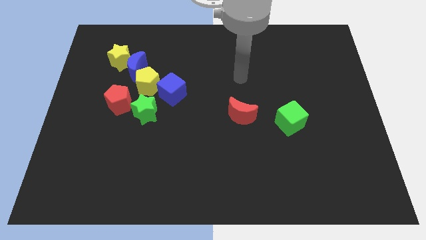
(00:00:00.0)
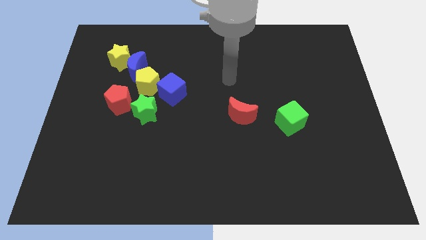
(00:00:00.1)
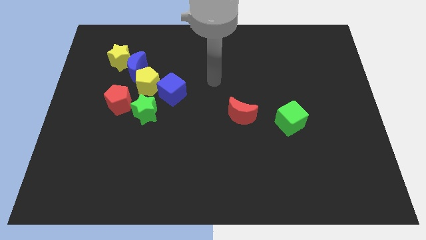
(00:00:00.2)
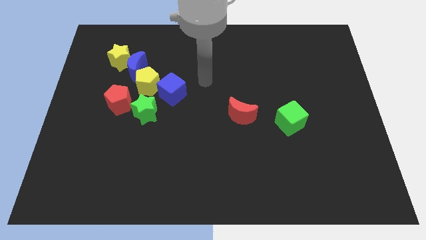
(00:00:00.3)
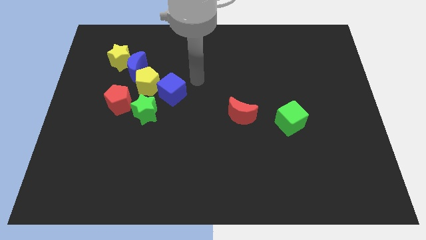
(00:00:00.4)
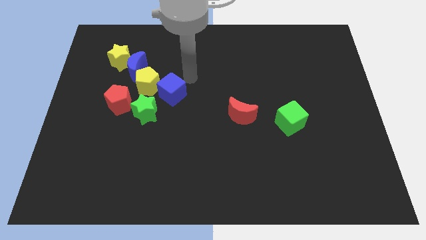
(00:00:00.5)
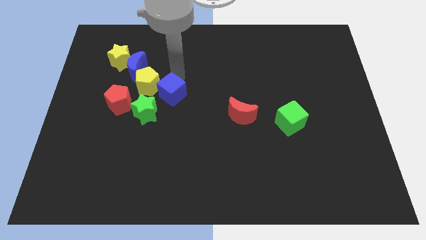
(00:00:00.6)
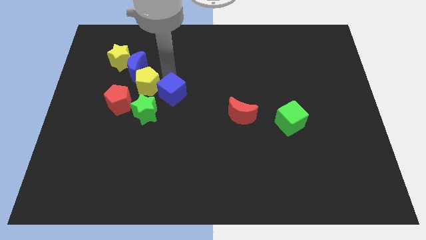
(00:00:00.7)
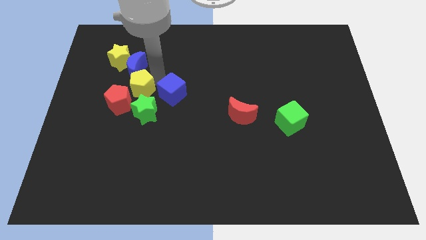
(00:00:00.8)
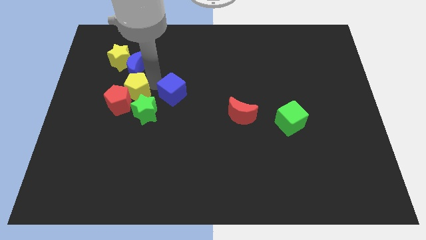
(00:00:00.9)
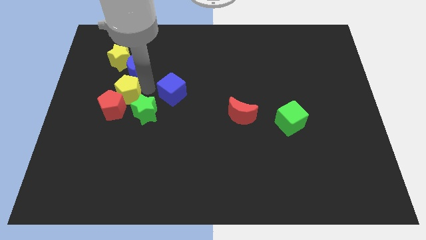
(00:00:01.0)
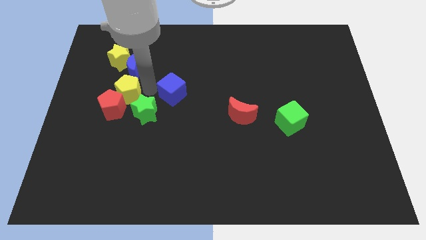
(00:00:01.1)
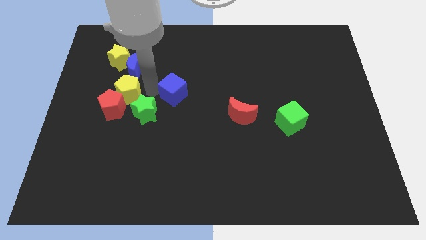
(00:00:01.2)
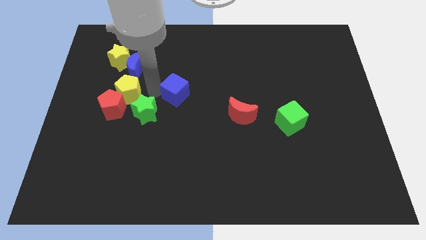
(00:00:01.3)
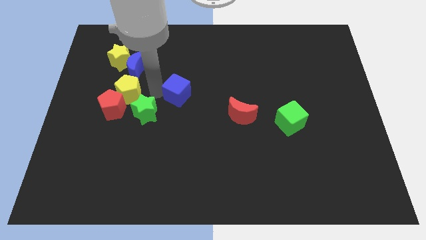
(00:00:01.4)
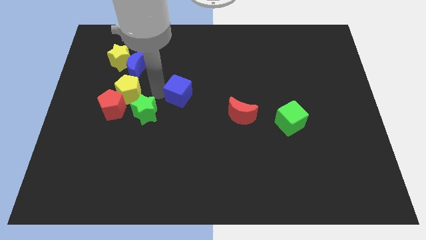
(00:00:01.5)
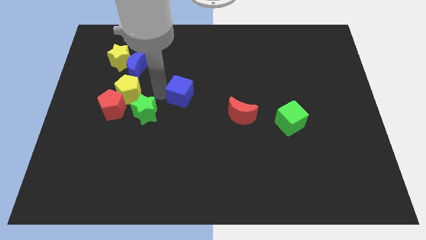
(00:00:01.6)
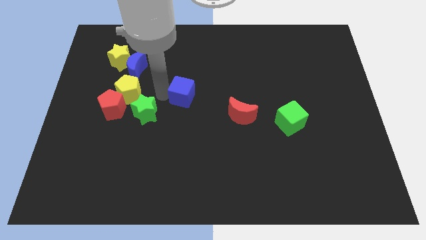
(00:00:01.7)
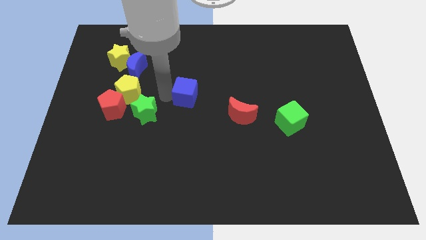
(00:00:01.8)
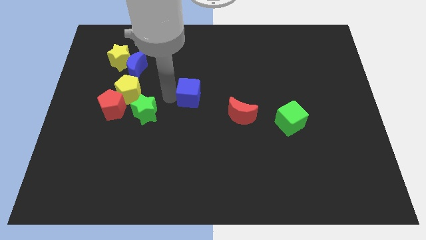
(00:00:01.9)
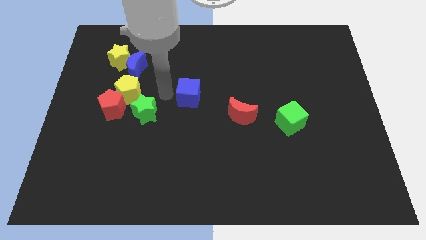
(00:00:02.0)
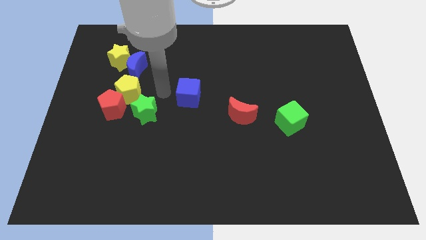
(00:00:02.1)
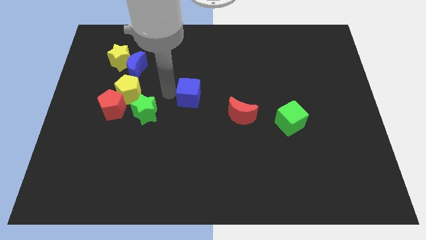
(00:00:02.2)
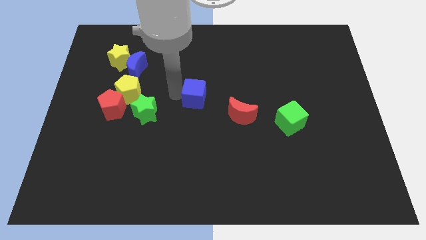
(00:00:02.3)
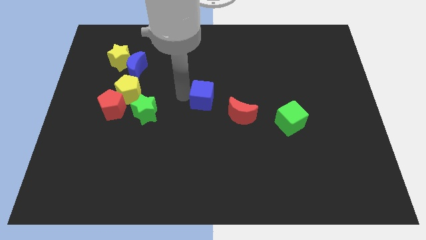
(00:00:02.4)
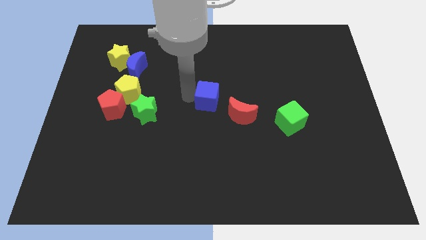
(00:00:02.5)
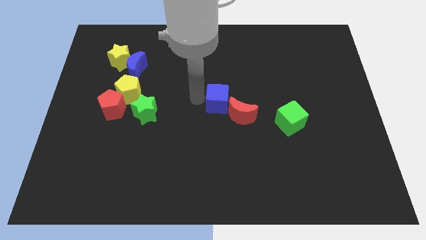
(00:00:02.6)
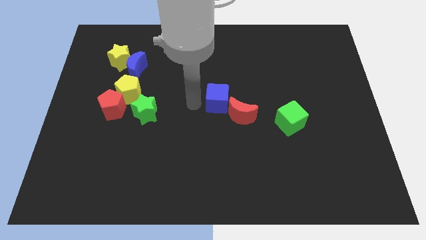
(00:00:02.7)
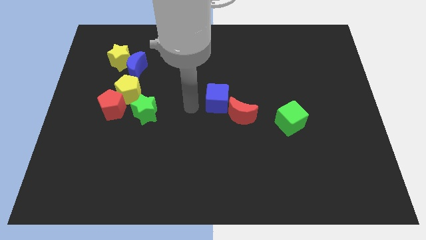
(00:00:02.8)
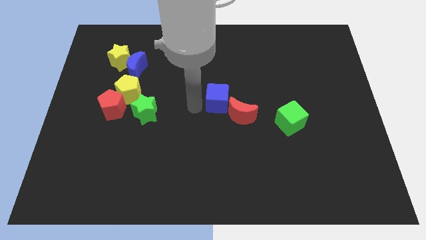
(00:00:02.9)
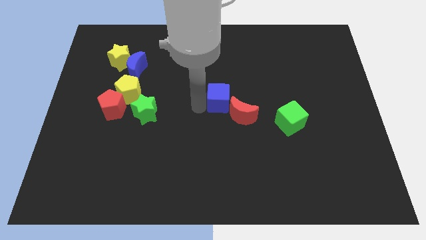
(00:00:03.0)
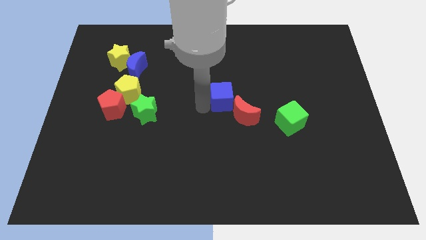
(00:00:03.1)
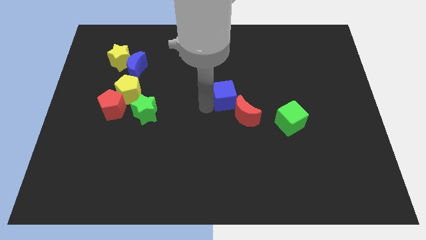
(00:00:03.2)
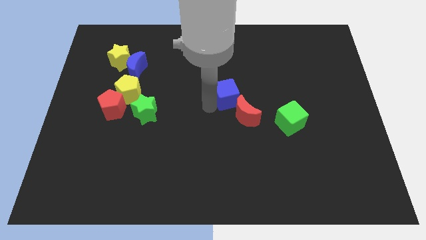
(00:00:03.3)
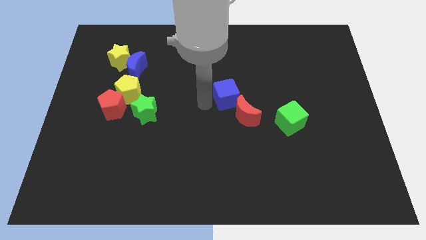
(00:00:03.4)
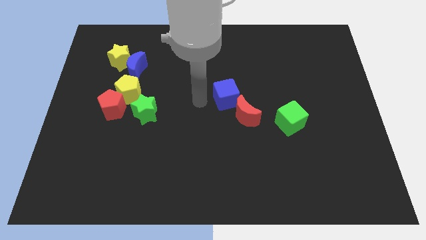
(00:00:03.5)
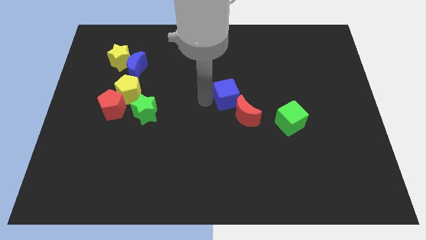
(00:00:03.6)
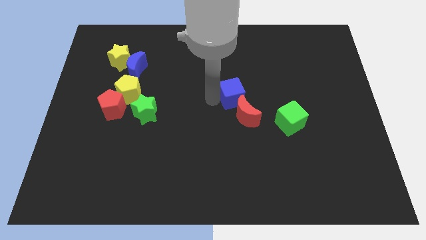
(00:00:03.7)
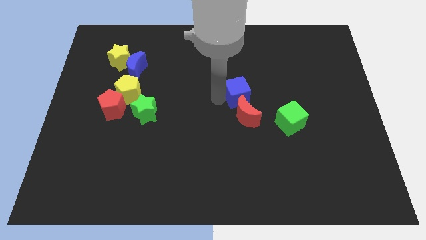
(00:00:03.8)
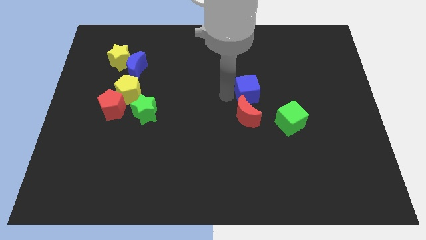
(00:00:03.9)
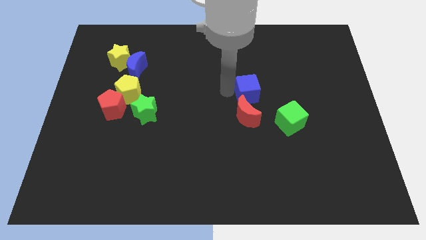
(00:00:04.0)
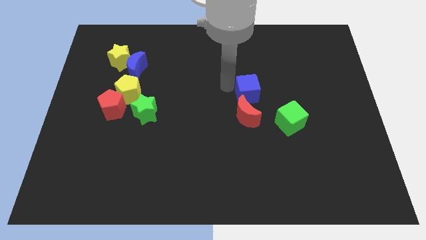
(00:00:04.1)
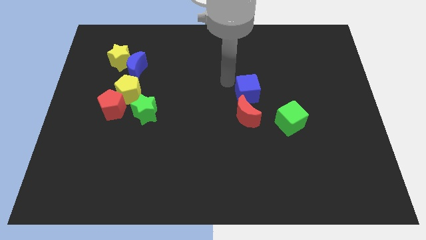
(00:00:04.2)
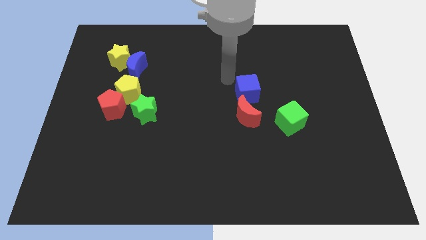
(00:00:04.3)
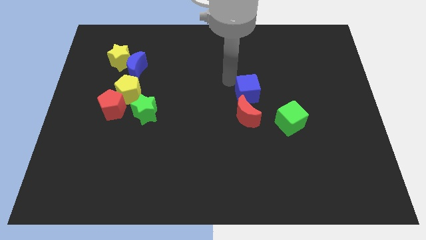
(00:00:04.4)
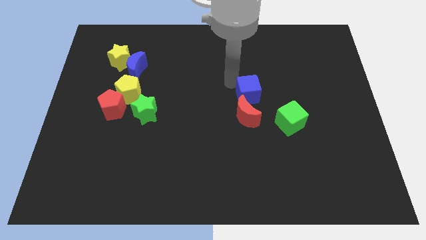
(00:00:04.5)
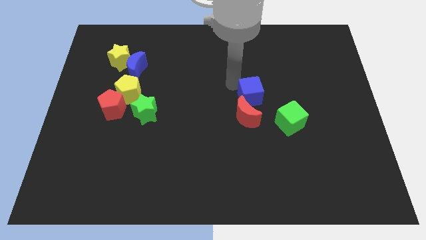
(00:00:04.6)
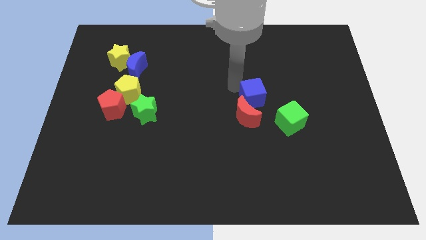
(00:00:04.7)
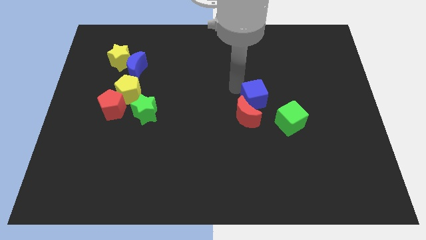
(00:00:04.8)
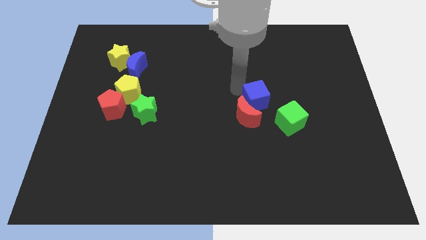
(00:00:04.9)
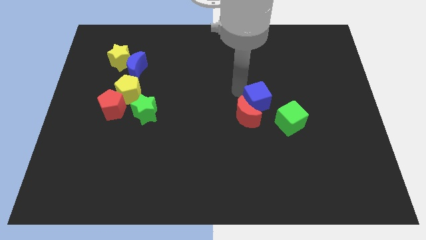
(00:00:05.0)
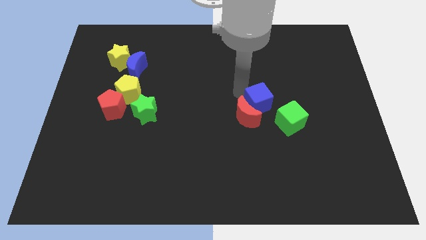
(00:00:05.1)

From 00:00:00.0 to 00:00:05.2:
put the blue cube to the right side of the red moon
